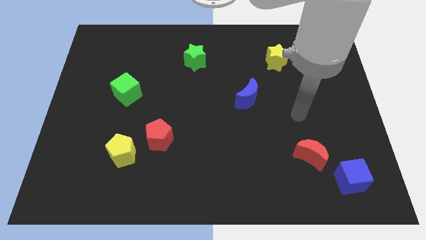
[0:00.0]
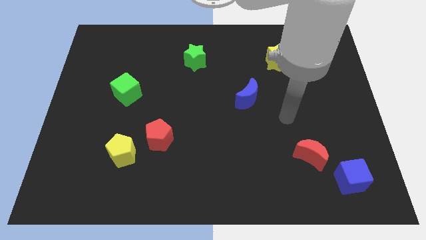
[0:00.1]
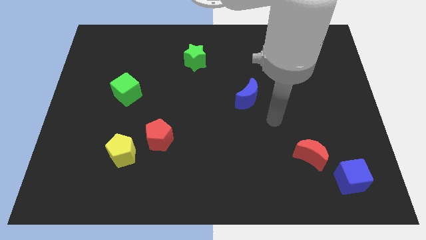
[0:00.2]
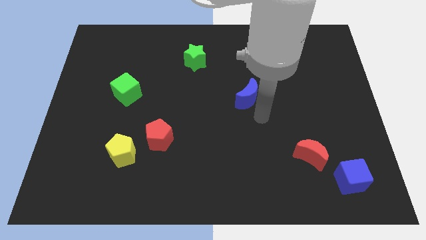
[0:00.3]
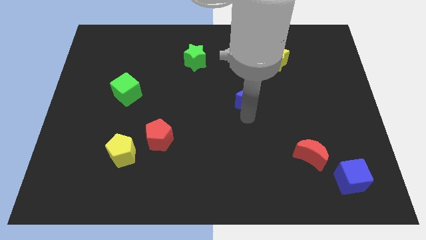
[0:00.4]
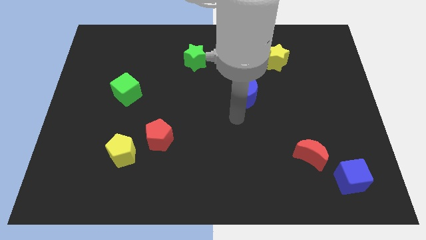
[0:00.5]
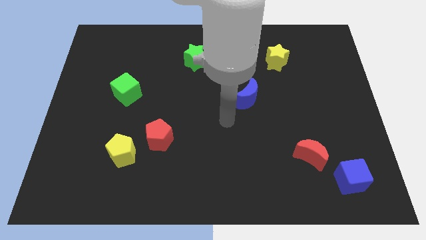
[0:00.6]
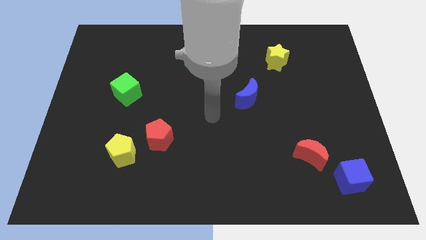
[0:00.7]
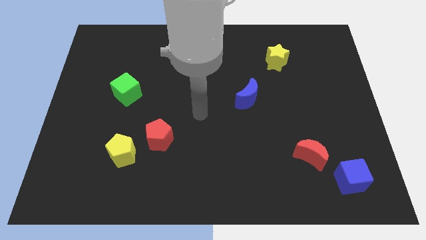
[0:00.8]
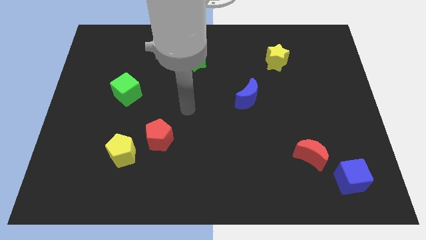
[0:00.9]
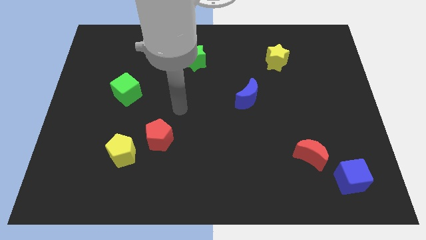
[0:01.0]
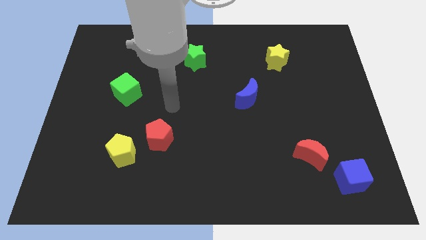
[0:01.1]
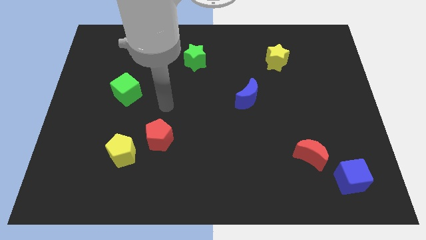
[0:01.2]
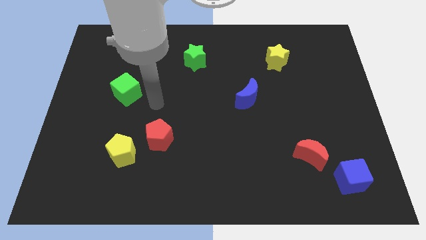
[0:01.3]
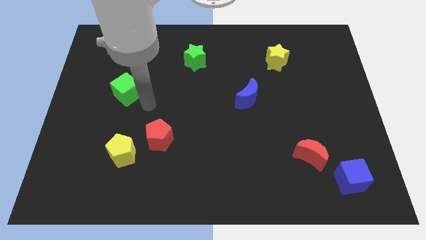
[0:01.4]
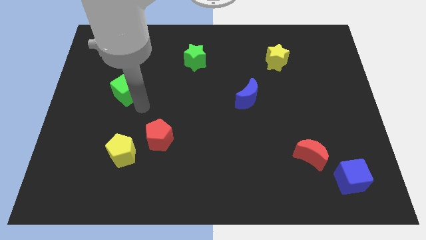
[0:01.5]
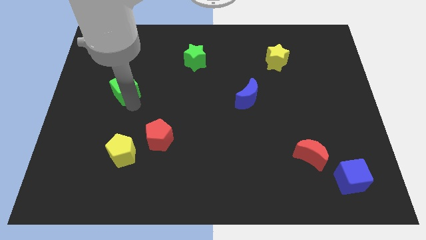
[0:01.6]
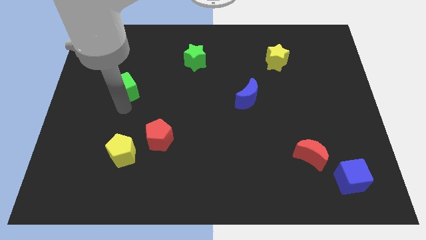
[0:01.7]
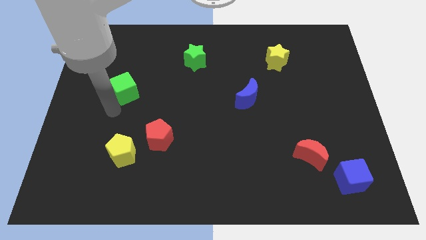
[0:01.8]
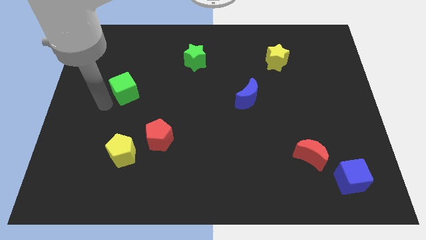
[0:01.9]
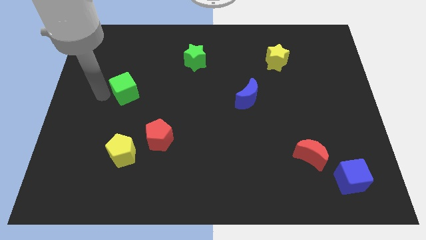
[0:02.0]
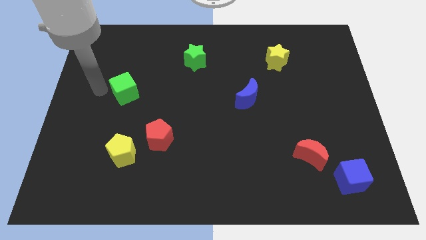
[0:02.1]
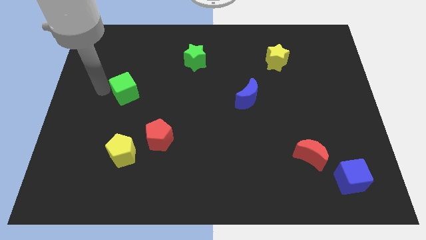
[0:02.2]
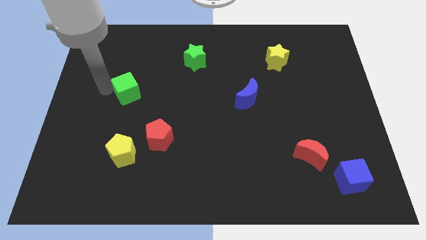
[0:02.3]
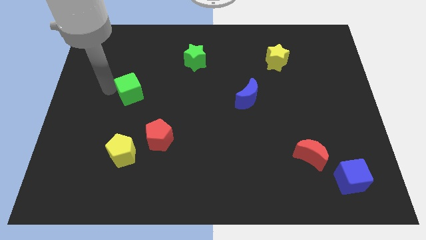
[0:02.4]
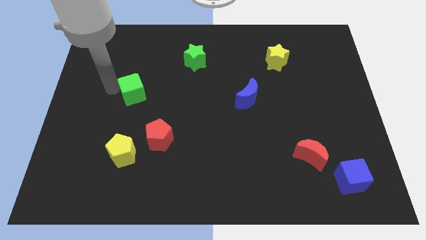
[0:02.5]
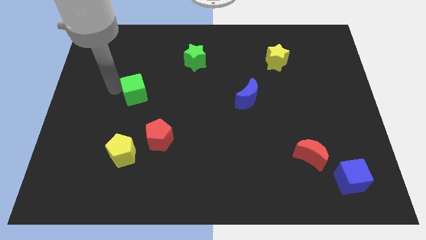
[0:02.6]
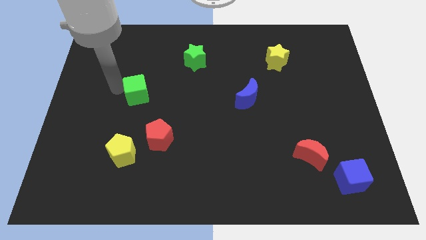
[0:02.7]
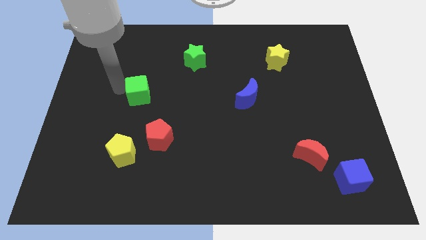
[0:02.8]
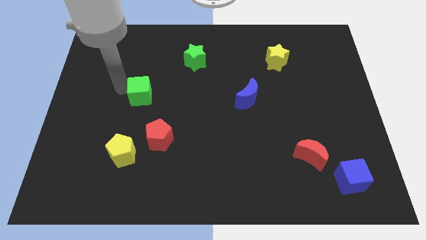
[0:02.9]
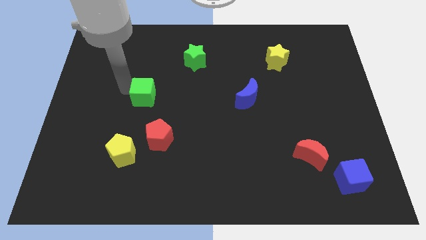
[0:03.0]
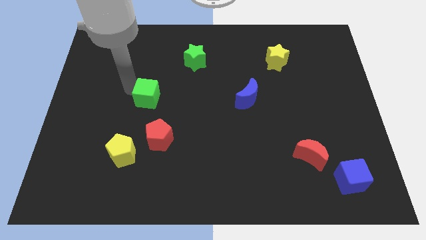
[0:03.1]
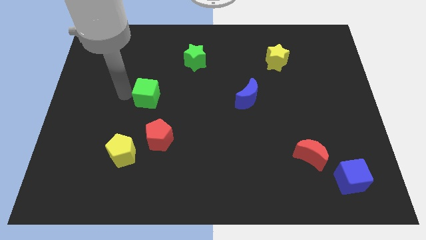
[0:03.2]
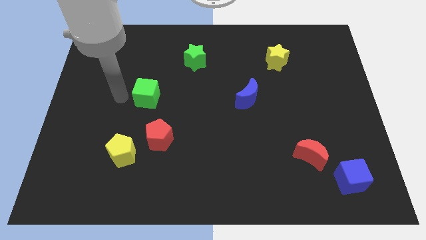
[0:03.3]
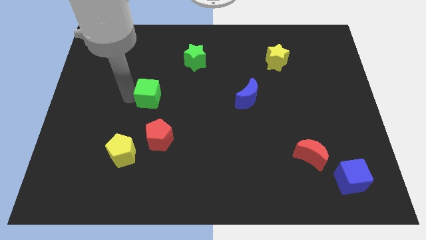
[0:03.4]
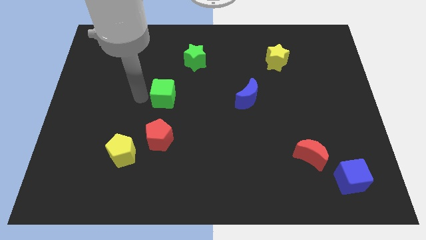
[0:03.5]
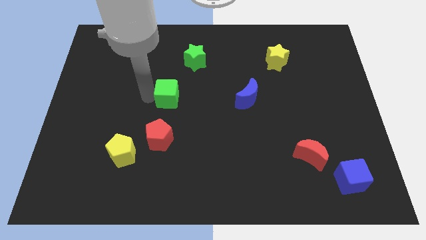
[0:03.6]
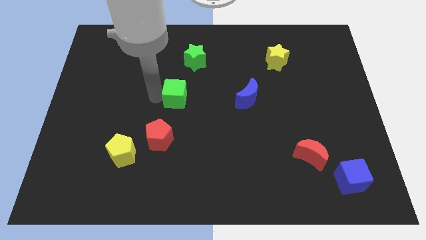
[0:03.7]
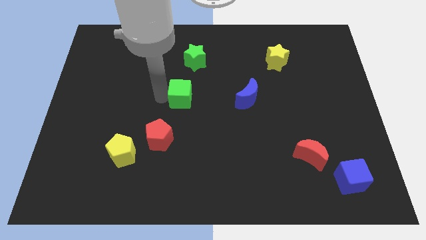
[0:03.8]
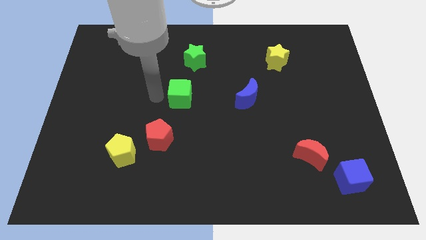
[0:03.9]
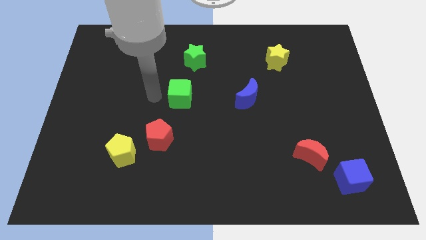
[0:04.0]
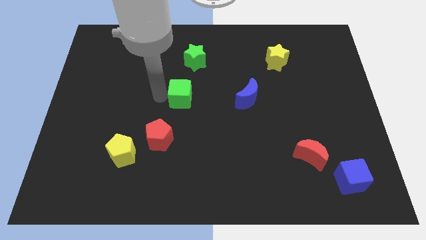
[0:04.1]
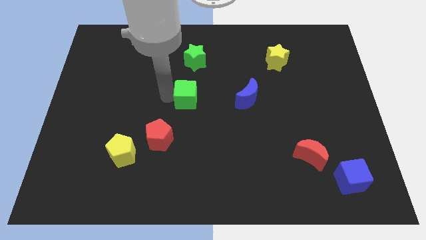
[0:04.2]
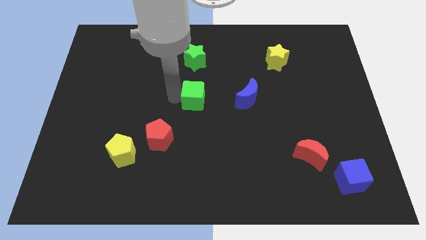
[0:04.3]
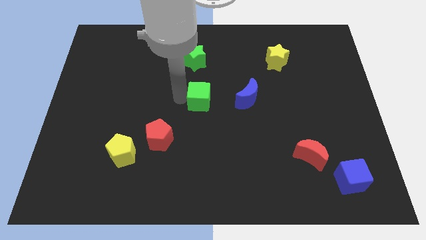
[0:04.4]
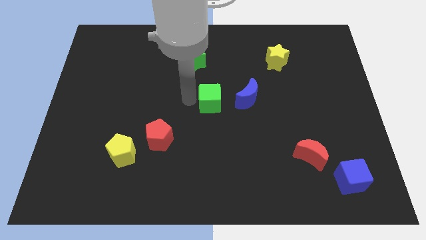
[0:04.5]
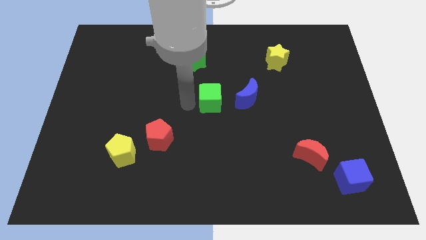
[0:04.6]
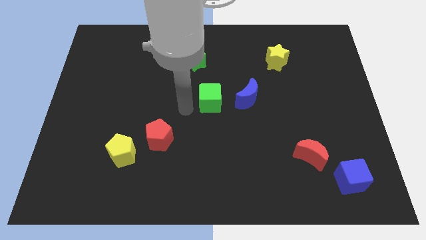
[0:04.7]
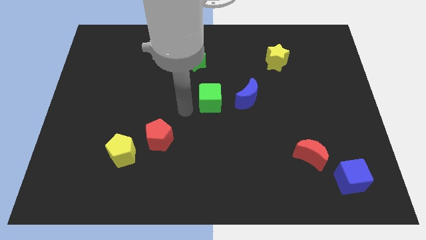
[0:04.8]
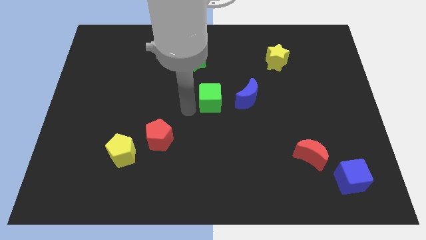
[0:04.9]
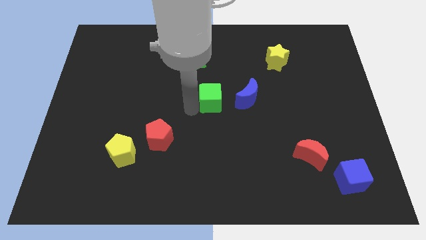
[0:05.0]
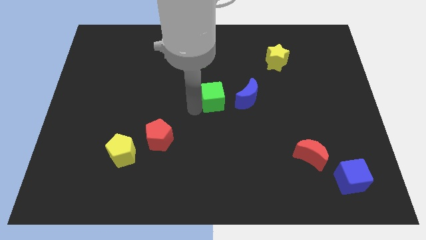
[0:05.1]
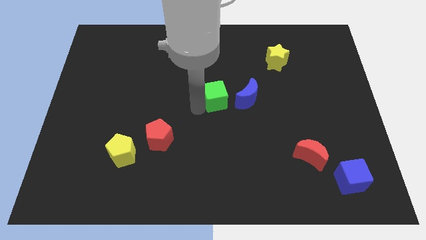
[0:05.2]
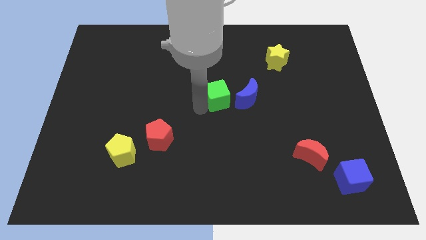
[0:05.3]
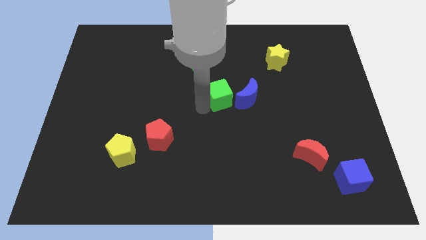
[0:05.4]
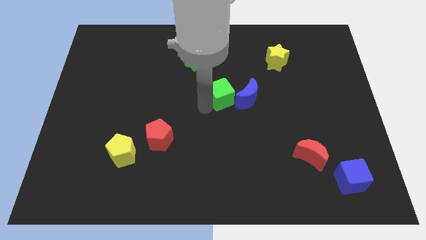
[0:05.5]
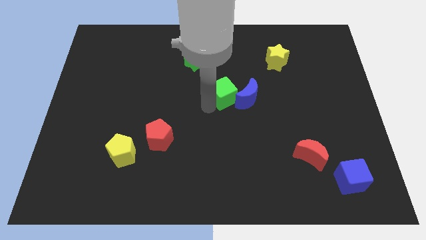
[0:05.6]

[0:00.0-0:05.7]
slide the green cube close to the blue moon

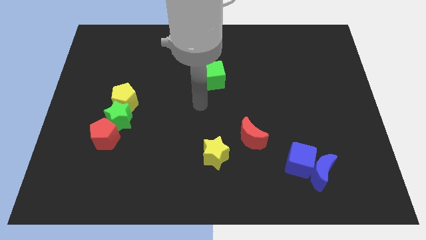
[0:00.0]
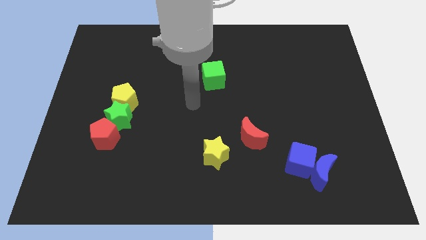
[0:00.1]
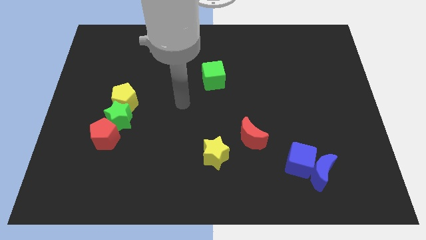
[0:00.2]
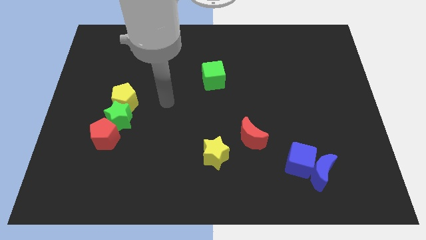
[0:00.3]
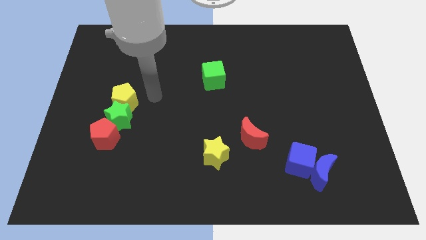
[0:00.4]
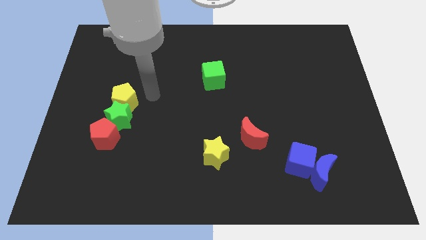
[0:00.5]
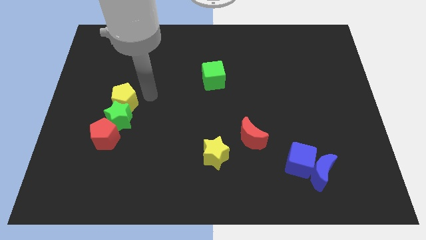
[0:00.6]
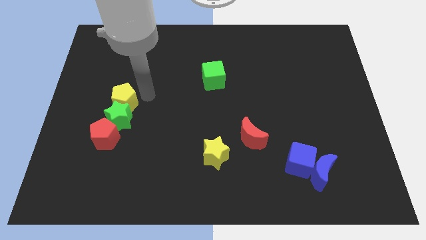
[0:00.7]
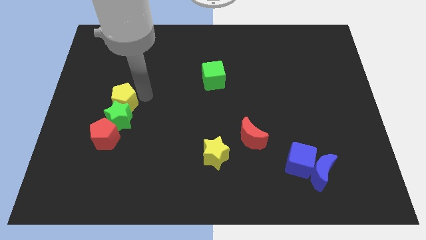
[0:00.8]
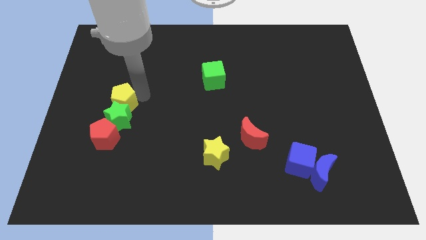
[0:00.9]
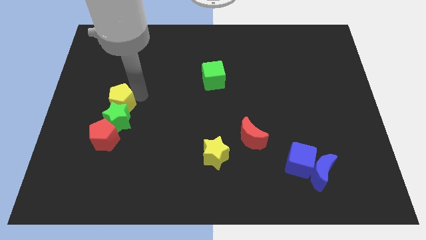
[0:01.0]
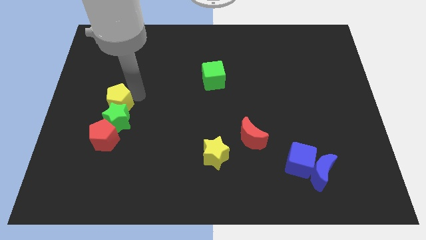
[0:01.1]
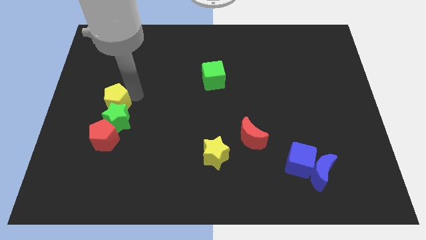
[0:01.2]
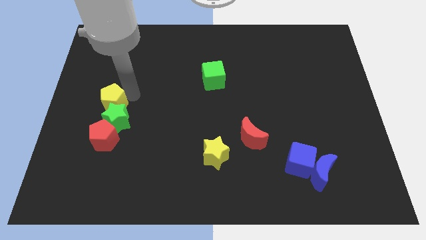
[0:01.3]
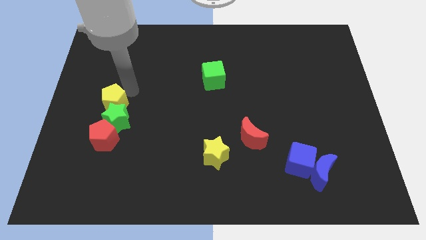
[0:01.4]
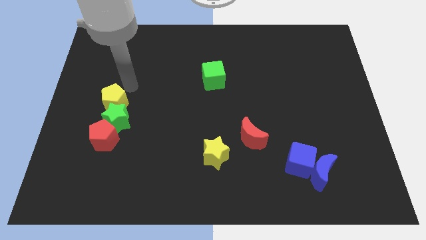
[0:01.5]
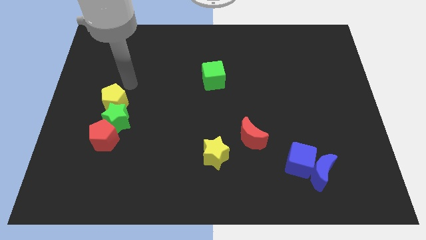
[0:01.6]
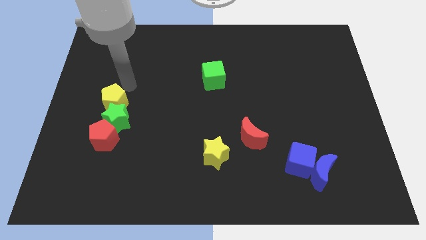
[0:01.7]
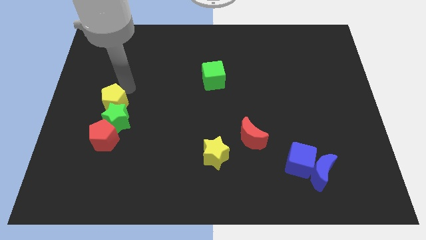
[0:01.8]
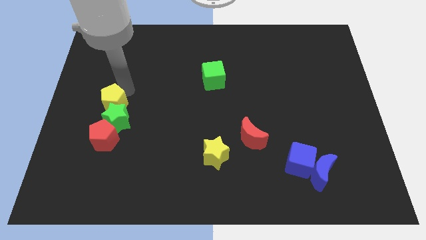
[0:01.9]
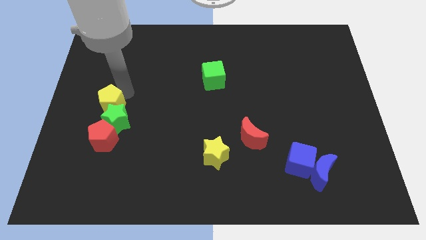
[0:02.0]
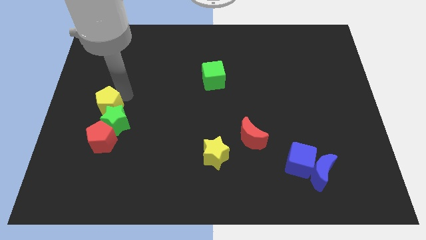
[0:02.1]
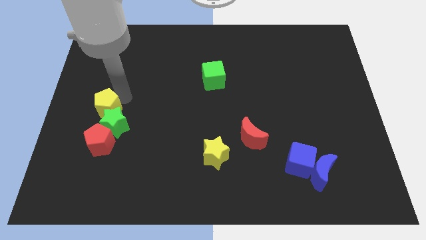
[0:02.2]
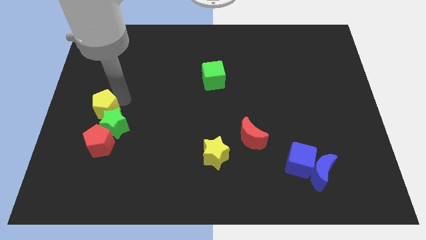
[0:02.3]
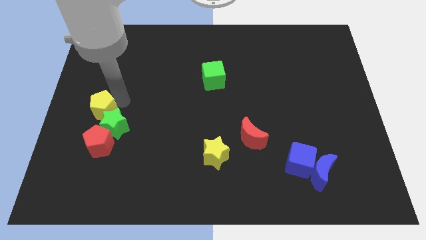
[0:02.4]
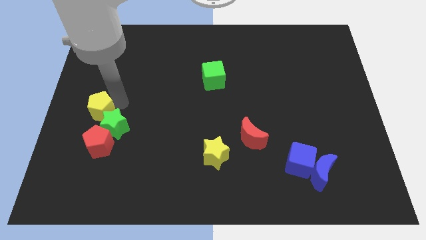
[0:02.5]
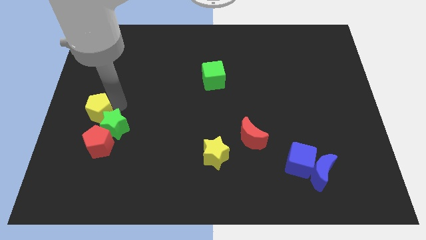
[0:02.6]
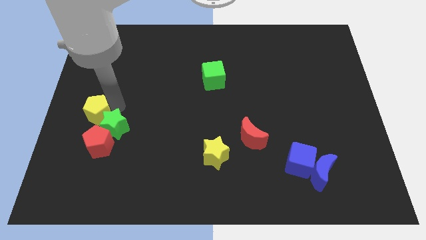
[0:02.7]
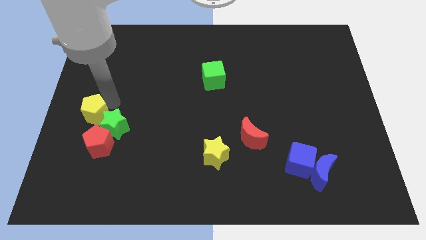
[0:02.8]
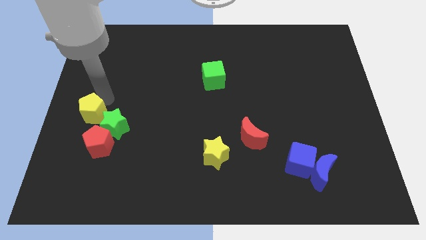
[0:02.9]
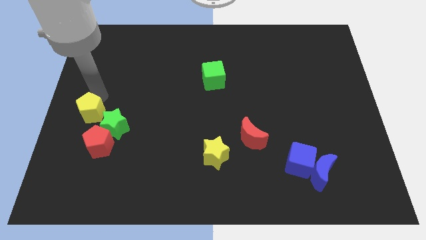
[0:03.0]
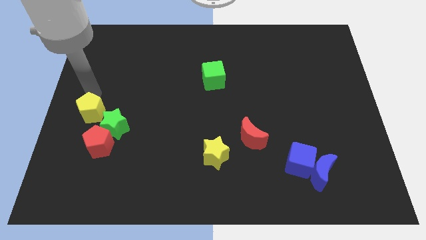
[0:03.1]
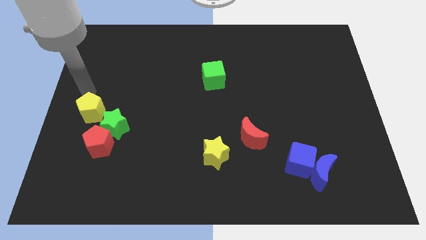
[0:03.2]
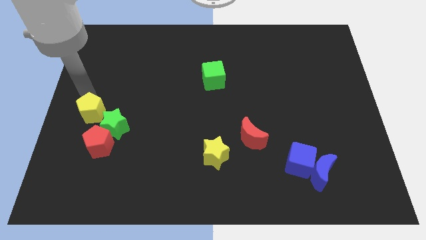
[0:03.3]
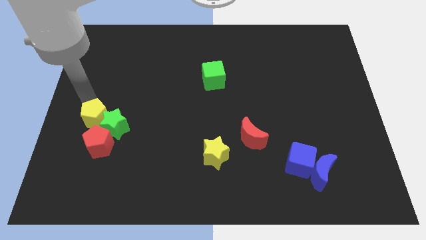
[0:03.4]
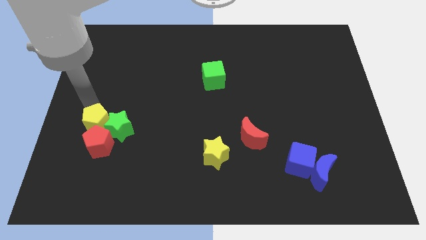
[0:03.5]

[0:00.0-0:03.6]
push the yellow pentagon close to the red pentagon
